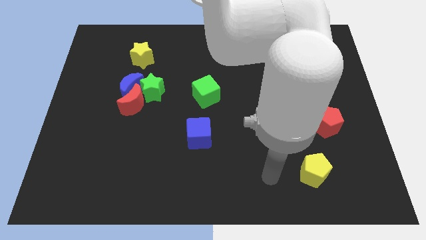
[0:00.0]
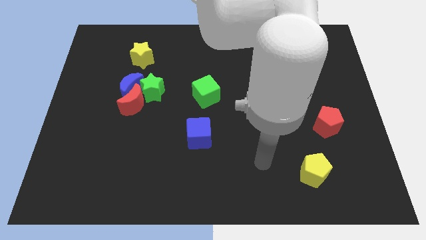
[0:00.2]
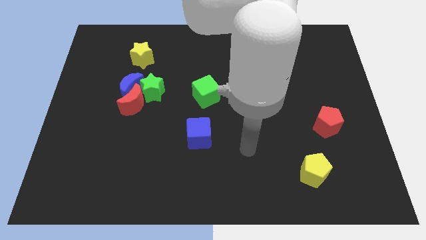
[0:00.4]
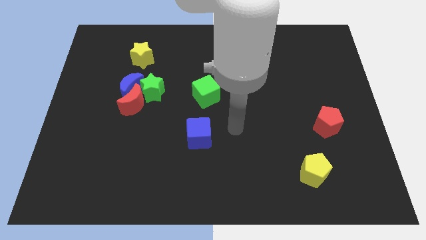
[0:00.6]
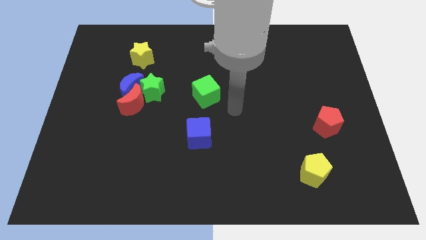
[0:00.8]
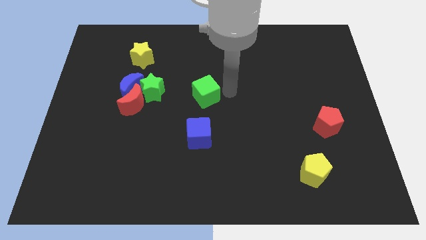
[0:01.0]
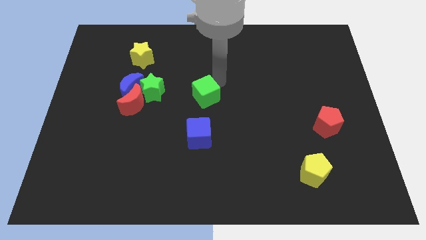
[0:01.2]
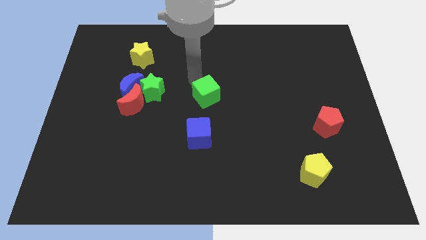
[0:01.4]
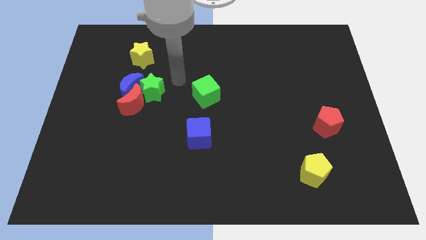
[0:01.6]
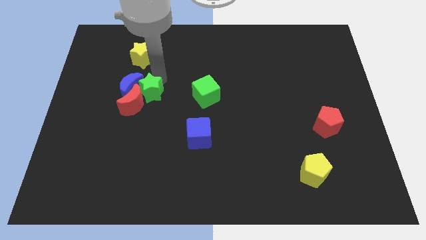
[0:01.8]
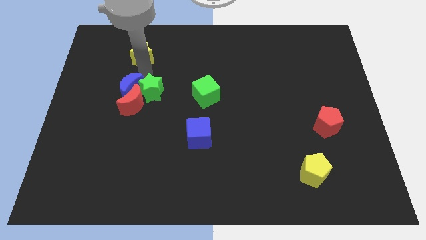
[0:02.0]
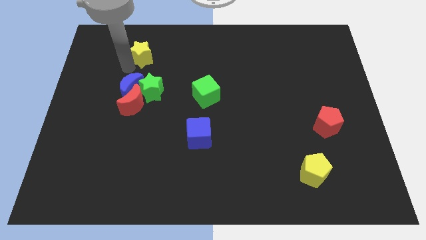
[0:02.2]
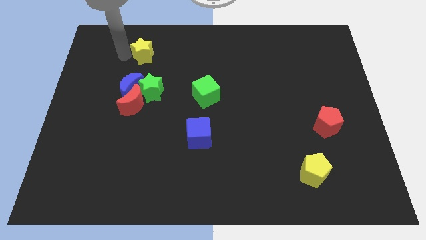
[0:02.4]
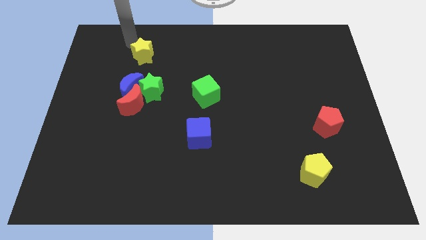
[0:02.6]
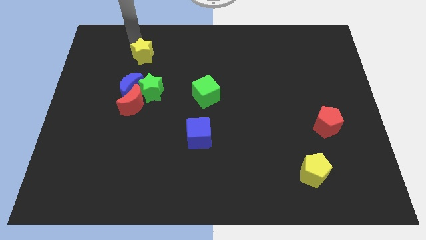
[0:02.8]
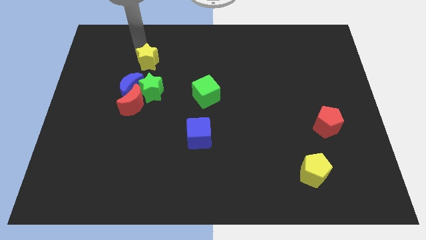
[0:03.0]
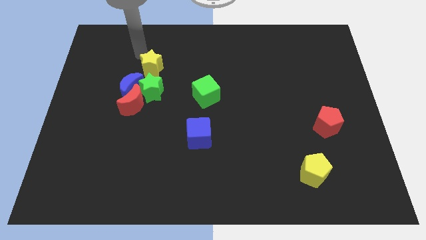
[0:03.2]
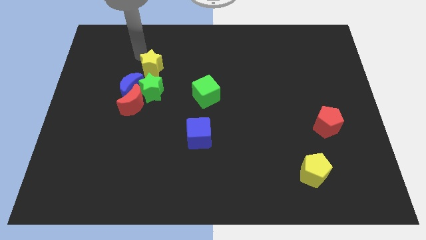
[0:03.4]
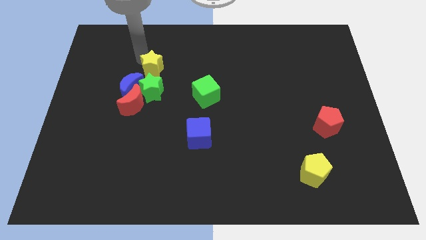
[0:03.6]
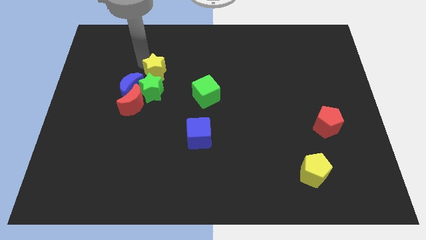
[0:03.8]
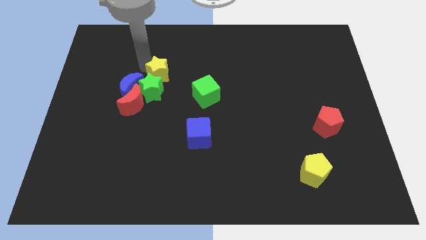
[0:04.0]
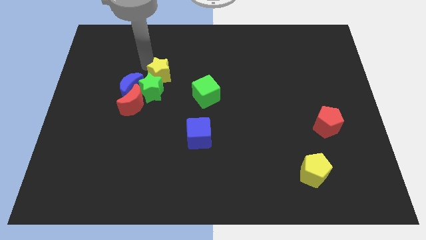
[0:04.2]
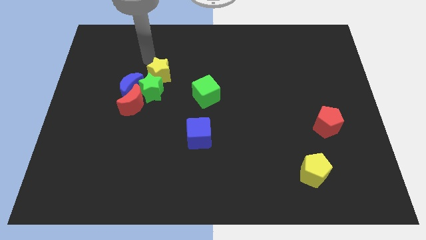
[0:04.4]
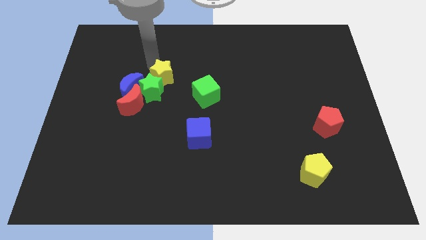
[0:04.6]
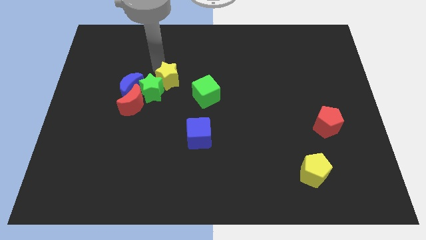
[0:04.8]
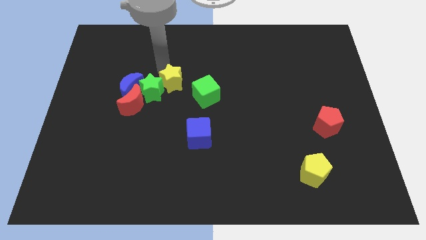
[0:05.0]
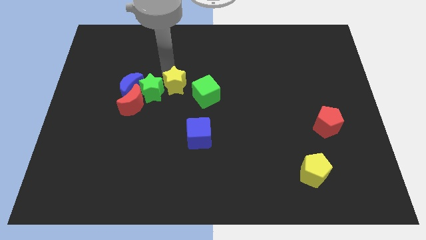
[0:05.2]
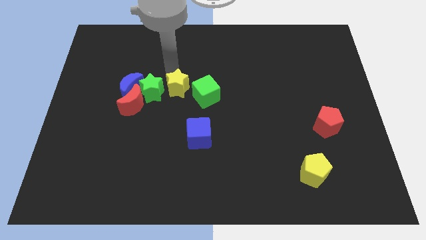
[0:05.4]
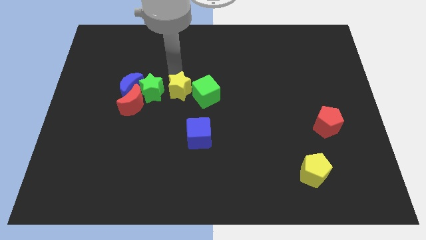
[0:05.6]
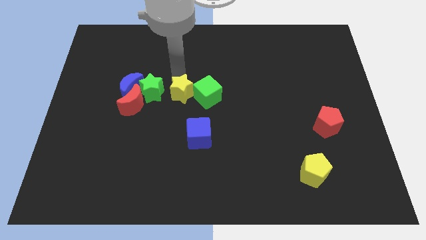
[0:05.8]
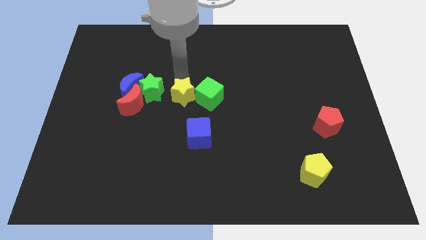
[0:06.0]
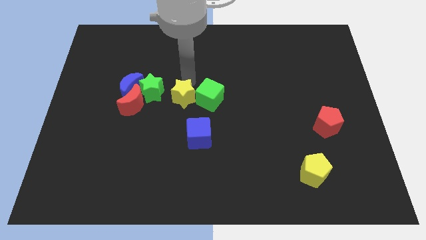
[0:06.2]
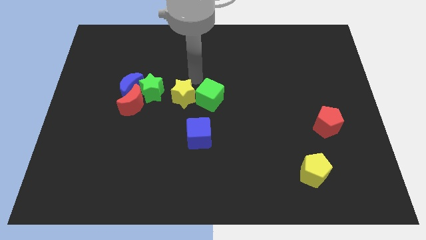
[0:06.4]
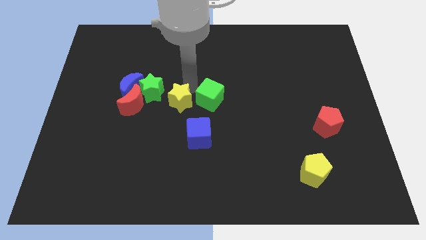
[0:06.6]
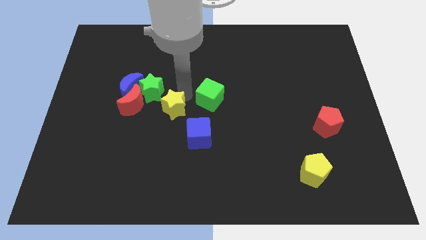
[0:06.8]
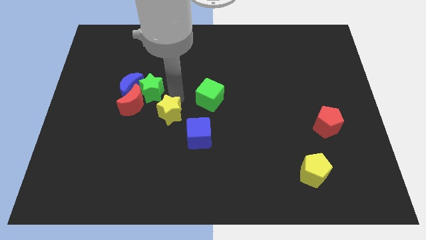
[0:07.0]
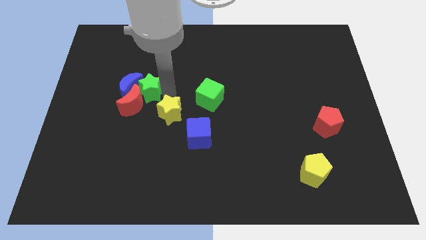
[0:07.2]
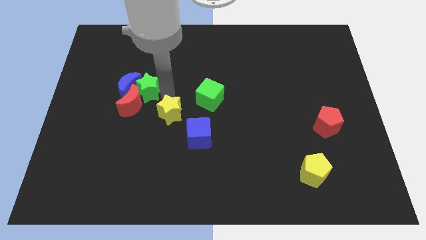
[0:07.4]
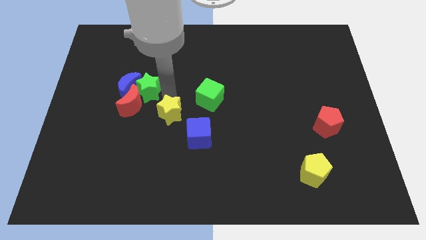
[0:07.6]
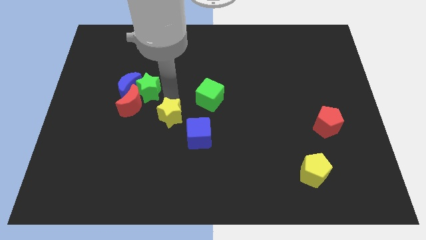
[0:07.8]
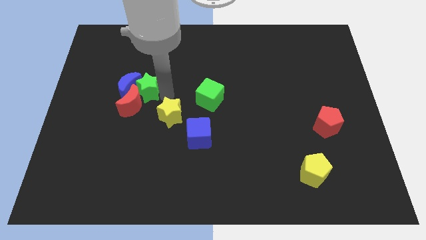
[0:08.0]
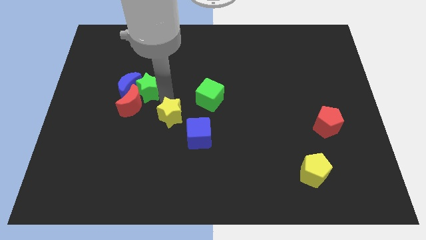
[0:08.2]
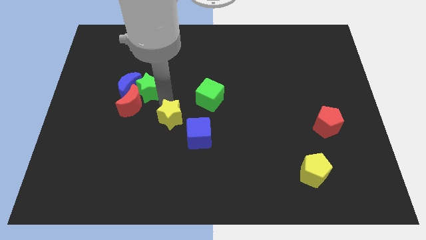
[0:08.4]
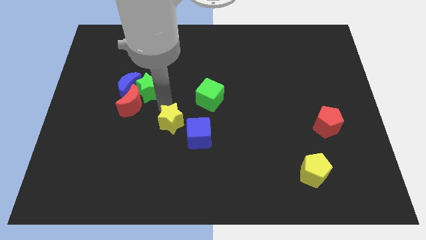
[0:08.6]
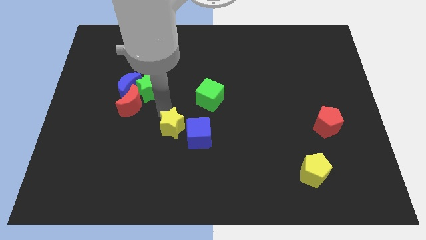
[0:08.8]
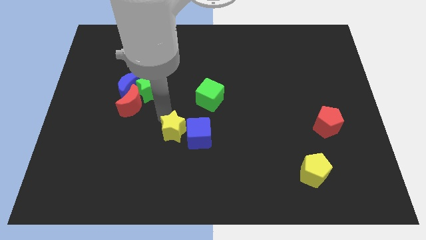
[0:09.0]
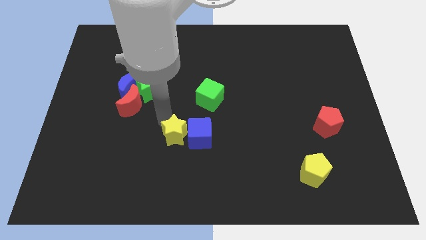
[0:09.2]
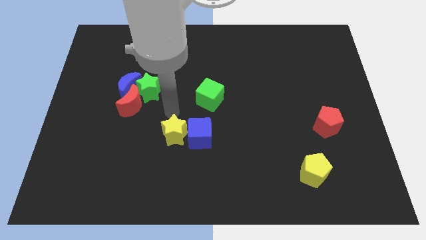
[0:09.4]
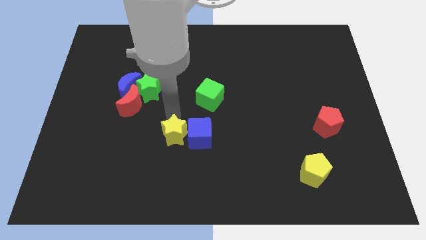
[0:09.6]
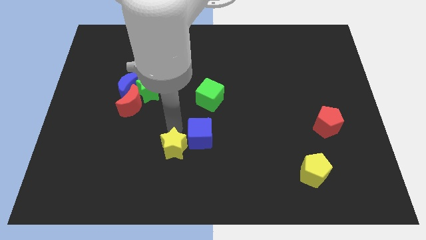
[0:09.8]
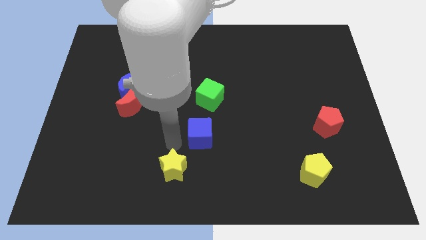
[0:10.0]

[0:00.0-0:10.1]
push the yellow star to the bottom side

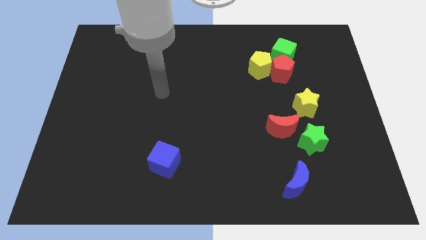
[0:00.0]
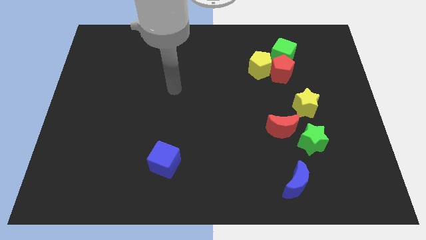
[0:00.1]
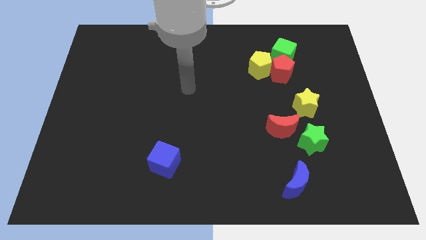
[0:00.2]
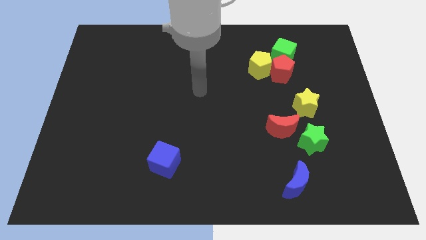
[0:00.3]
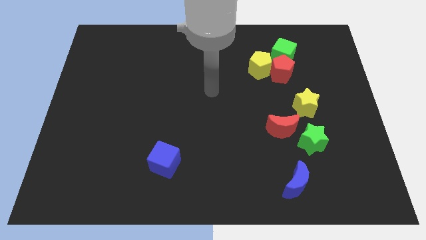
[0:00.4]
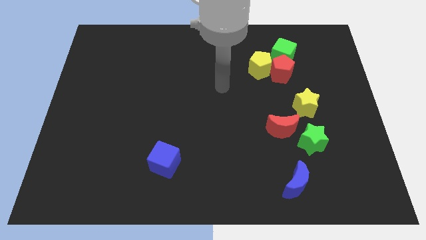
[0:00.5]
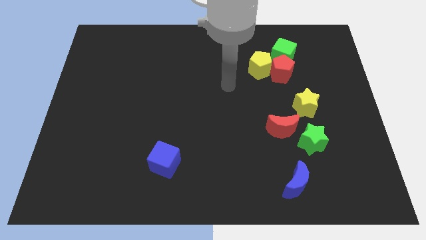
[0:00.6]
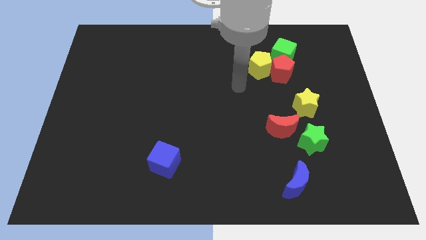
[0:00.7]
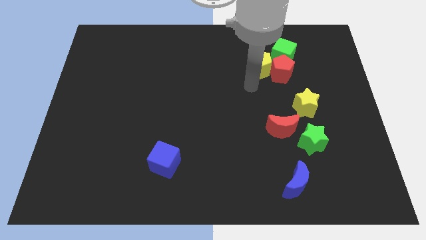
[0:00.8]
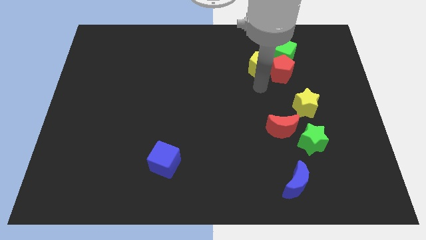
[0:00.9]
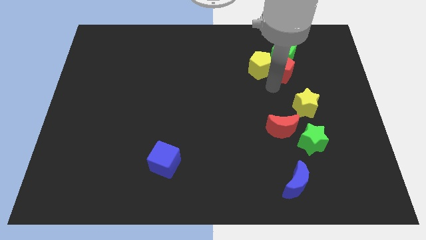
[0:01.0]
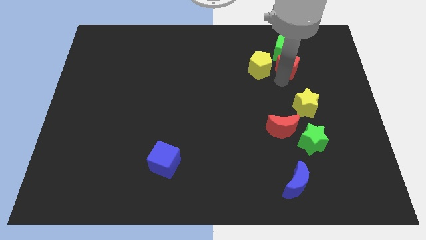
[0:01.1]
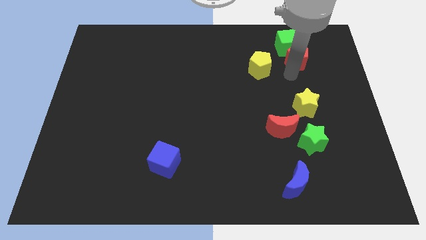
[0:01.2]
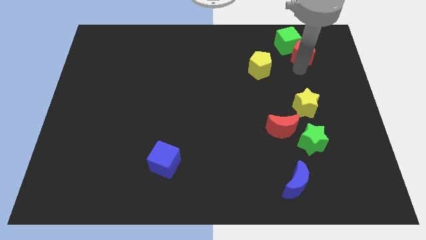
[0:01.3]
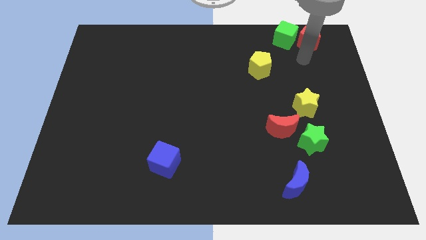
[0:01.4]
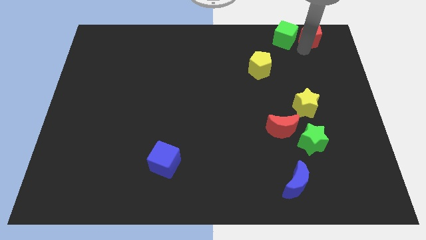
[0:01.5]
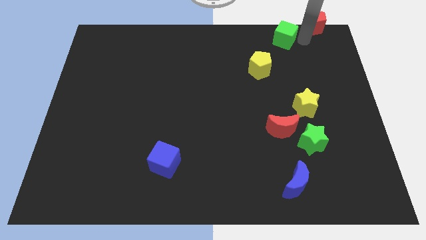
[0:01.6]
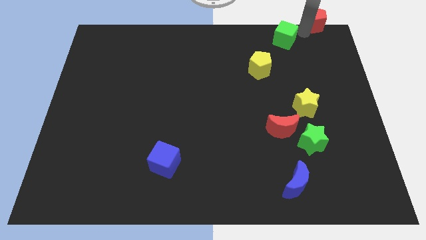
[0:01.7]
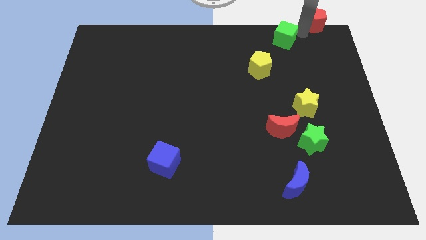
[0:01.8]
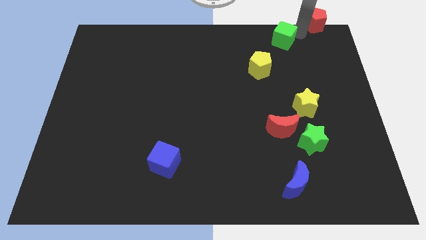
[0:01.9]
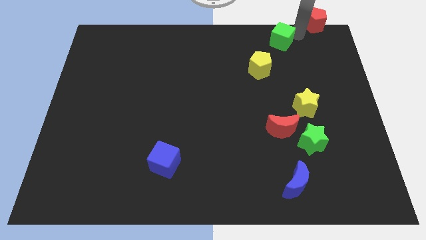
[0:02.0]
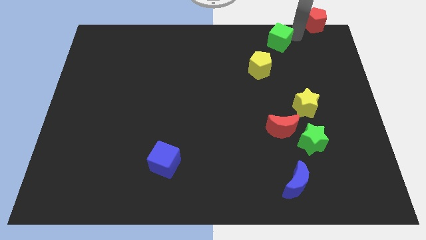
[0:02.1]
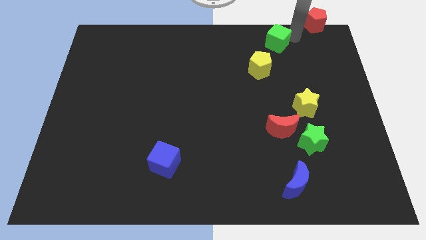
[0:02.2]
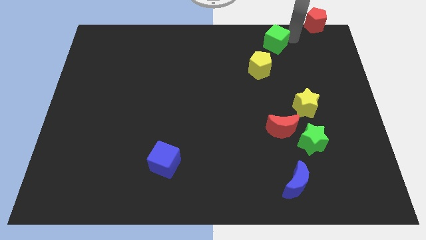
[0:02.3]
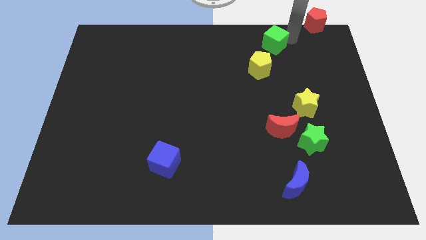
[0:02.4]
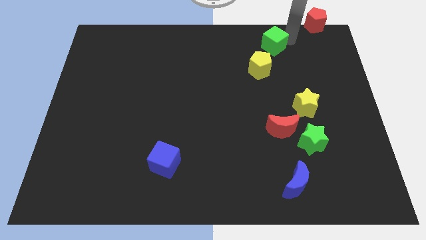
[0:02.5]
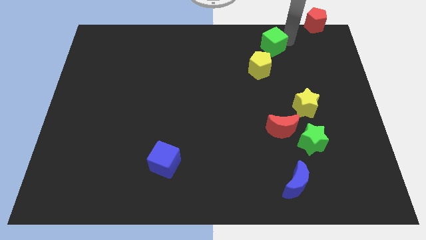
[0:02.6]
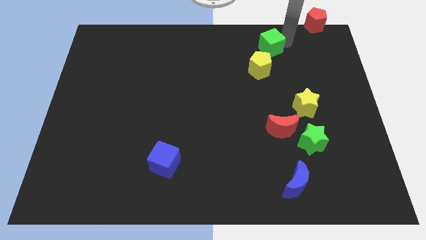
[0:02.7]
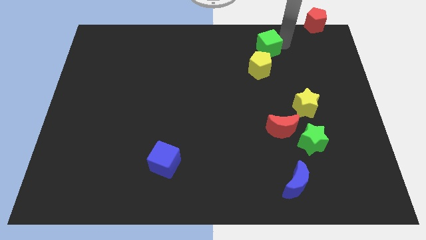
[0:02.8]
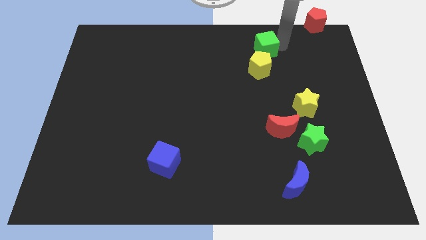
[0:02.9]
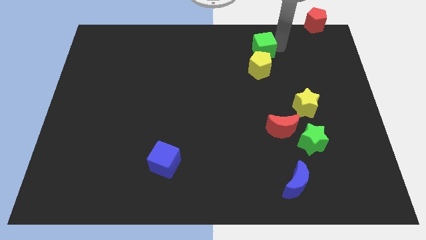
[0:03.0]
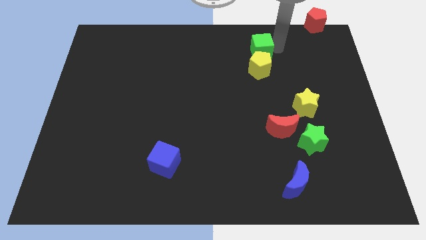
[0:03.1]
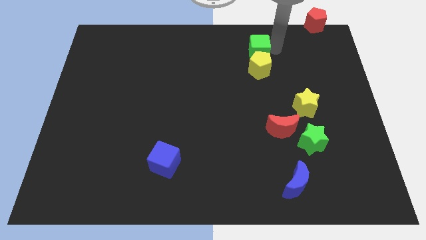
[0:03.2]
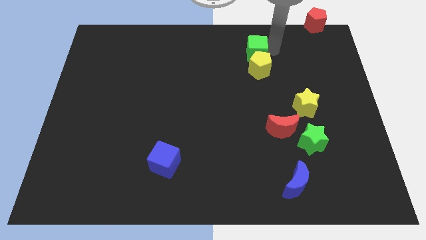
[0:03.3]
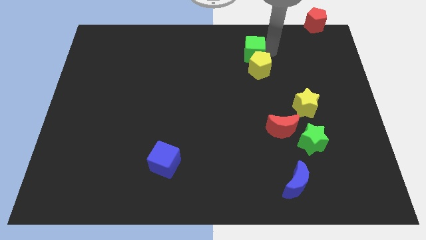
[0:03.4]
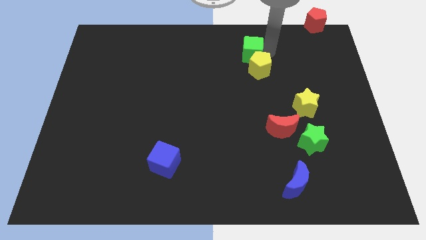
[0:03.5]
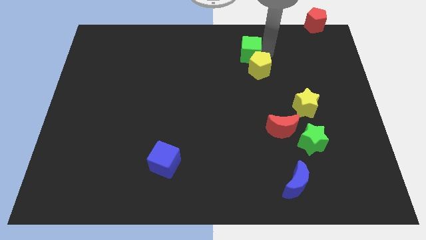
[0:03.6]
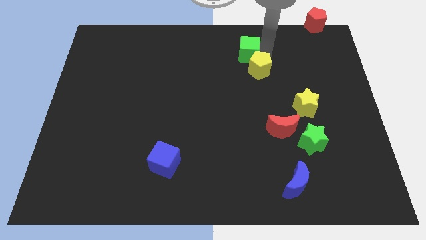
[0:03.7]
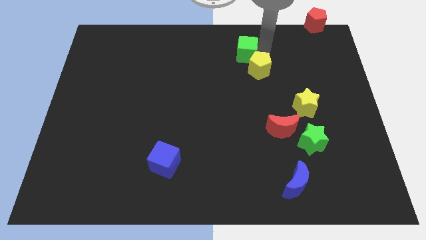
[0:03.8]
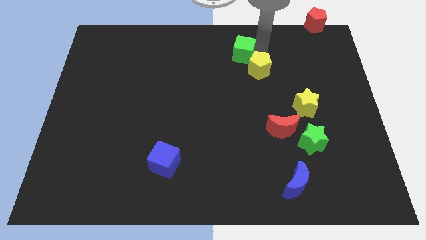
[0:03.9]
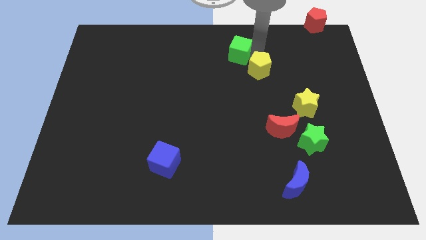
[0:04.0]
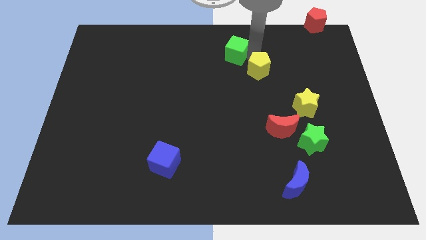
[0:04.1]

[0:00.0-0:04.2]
put the green cube to the top side
